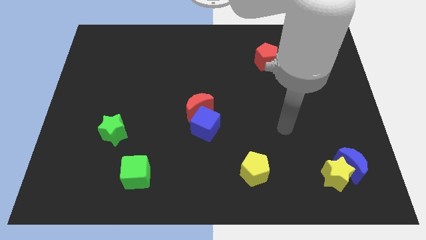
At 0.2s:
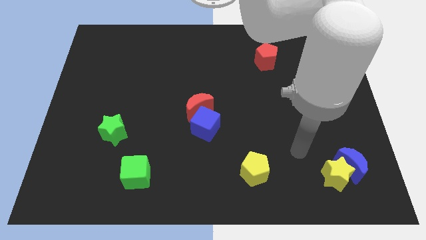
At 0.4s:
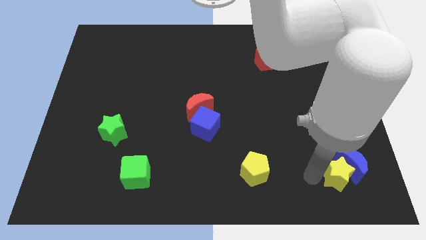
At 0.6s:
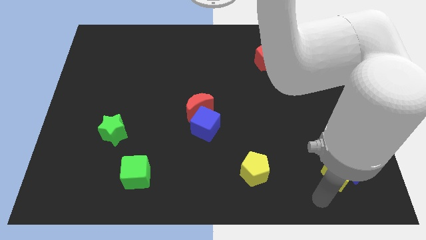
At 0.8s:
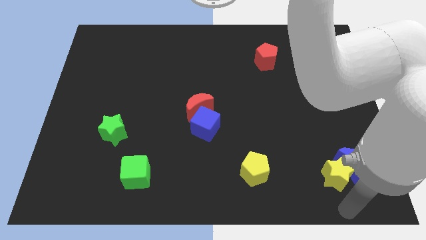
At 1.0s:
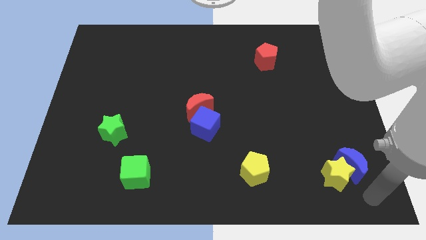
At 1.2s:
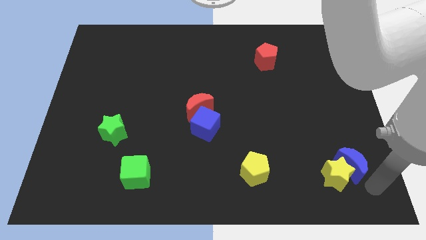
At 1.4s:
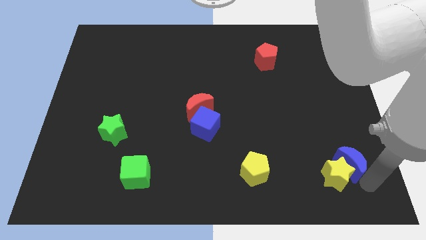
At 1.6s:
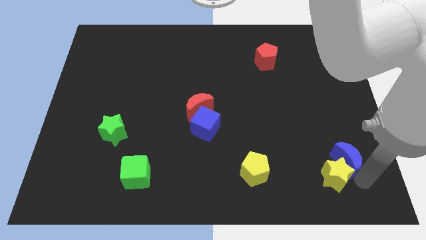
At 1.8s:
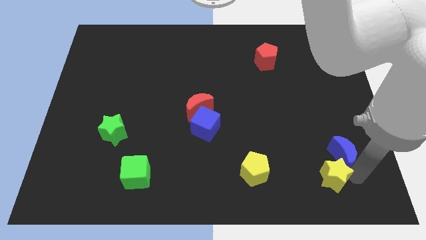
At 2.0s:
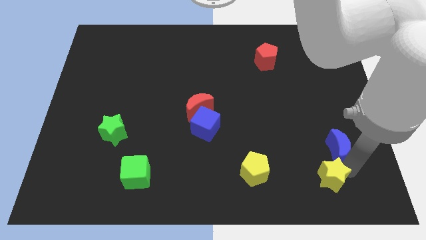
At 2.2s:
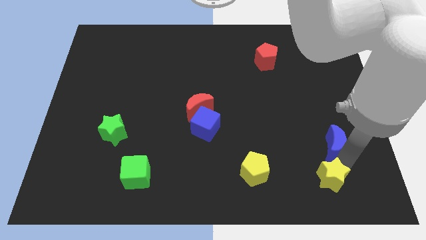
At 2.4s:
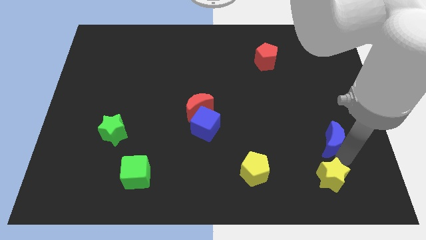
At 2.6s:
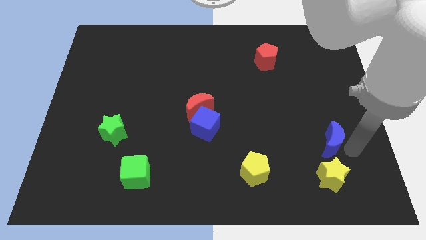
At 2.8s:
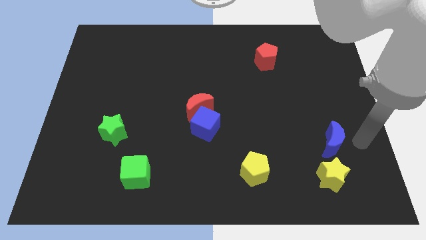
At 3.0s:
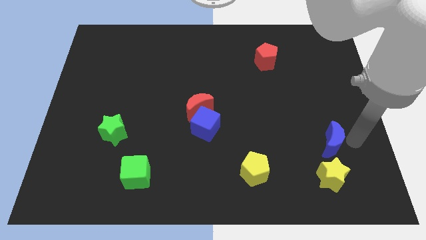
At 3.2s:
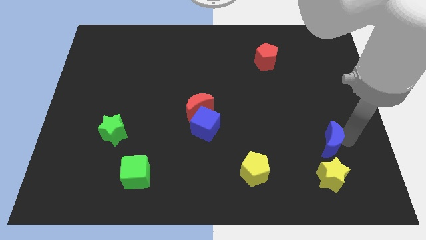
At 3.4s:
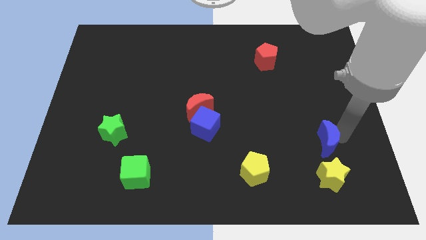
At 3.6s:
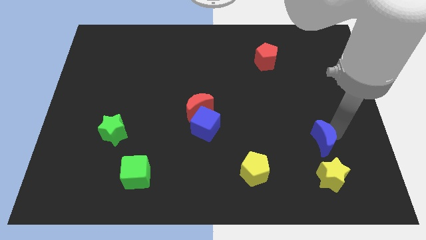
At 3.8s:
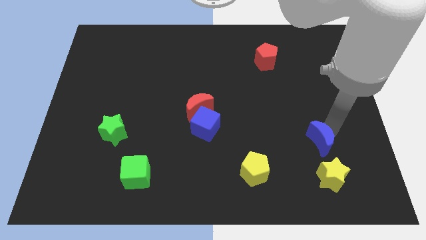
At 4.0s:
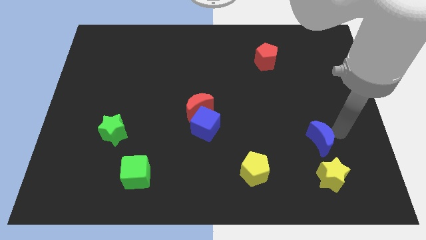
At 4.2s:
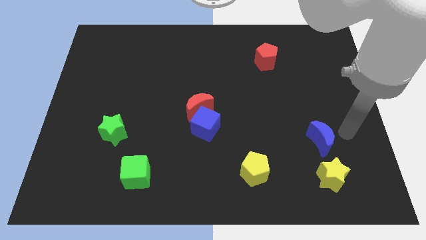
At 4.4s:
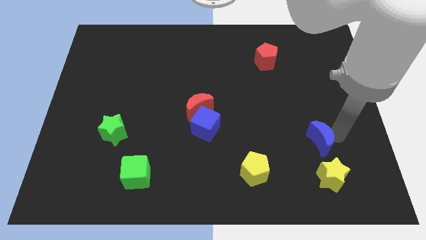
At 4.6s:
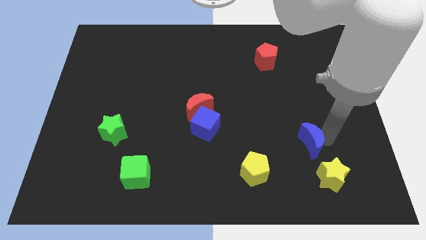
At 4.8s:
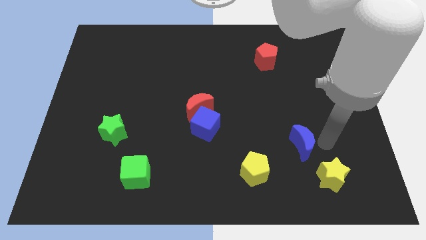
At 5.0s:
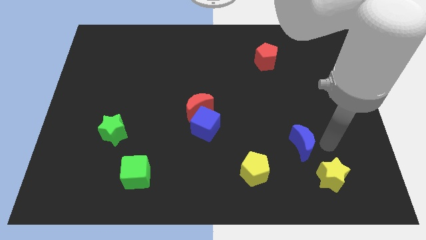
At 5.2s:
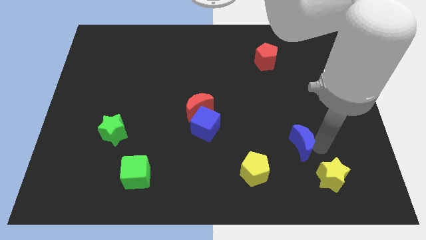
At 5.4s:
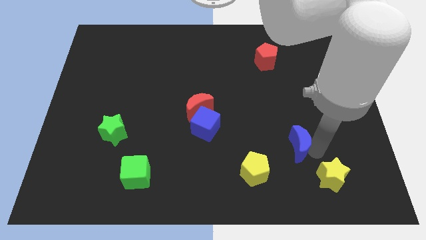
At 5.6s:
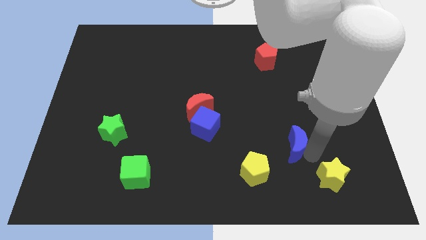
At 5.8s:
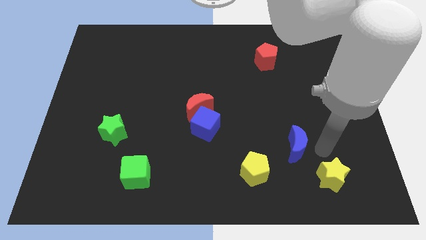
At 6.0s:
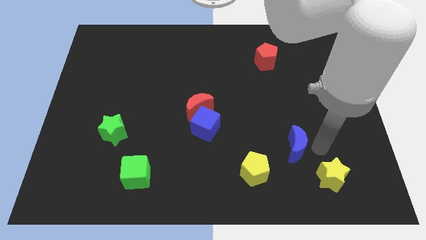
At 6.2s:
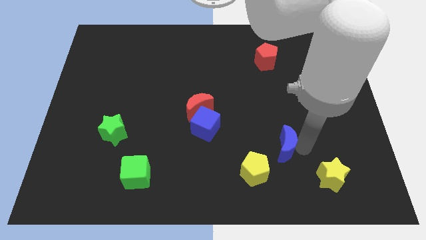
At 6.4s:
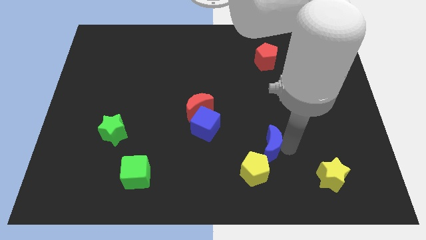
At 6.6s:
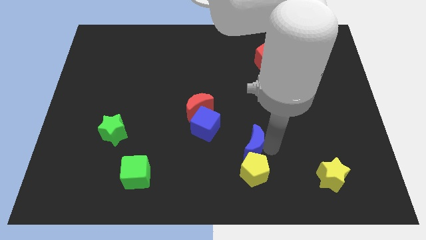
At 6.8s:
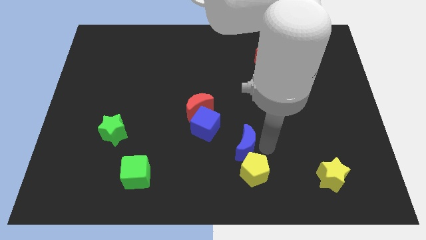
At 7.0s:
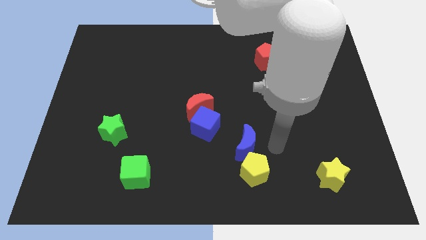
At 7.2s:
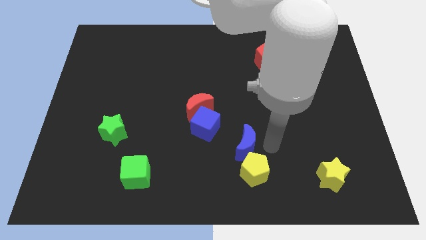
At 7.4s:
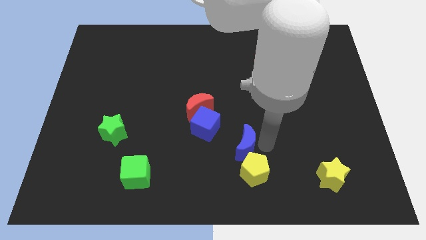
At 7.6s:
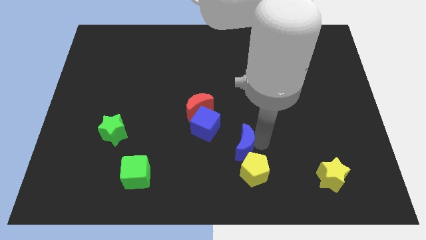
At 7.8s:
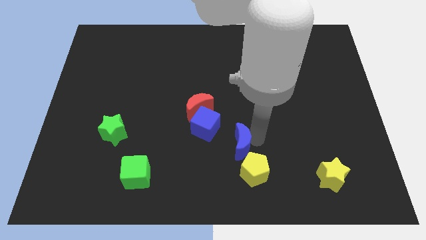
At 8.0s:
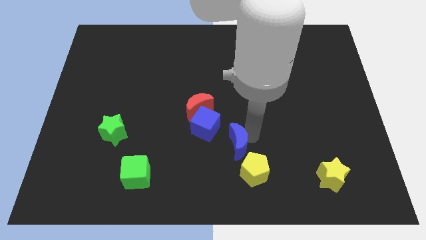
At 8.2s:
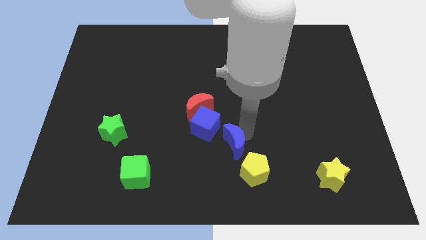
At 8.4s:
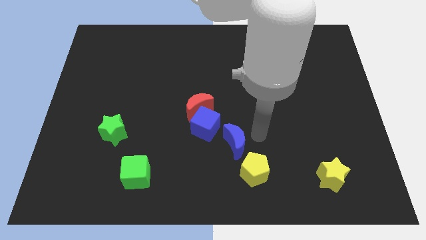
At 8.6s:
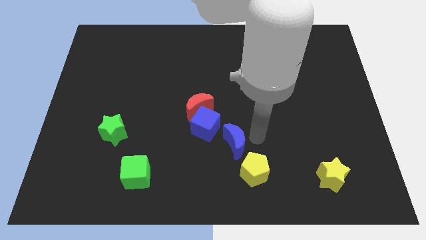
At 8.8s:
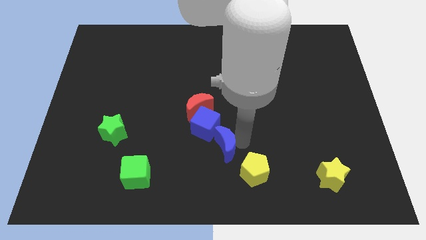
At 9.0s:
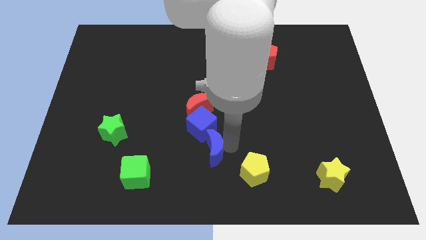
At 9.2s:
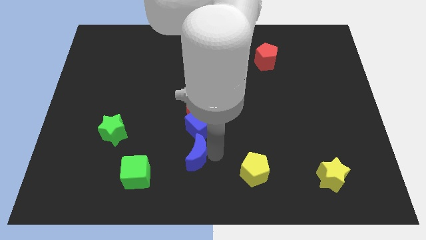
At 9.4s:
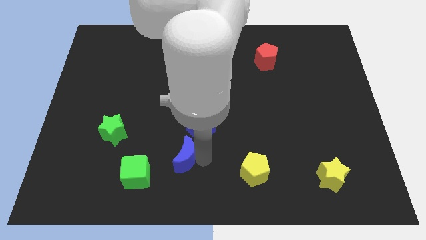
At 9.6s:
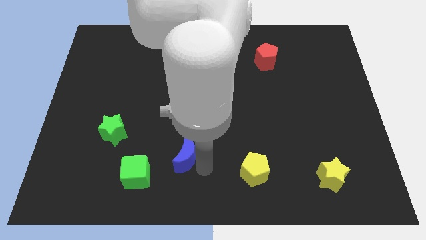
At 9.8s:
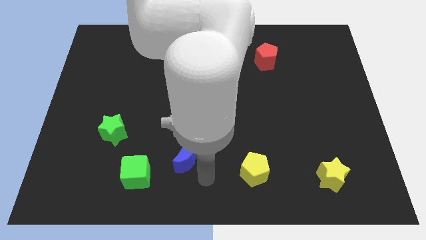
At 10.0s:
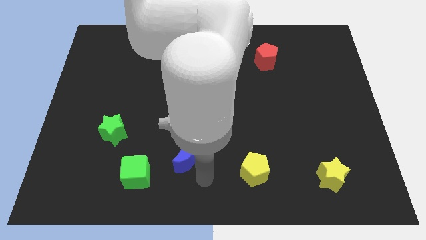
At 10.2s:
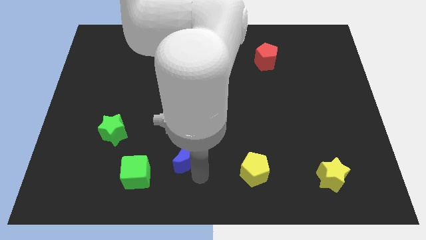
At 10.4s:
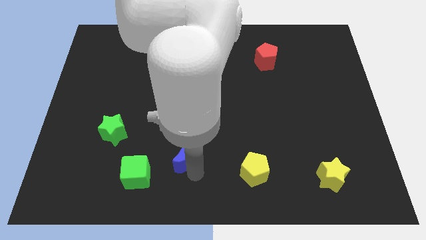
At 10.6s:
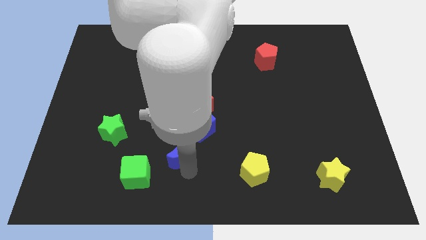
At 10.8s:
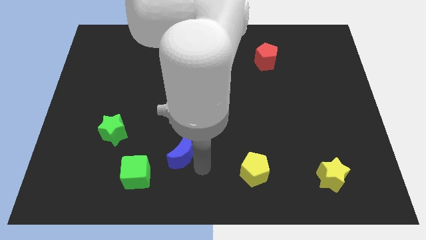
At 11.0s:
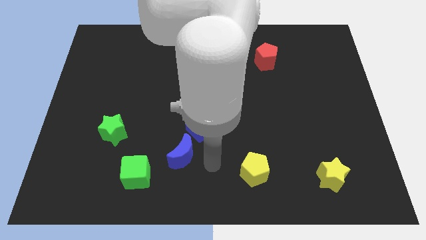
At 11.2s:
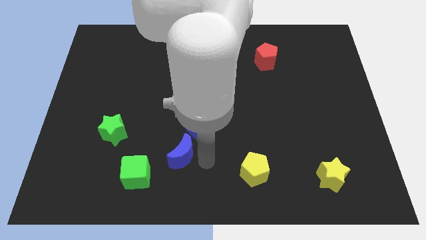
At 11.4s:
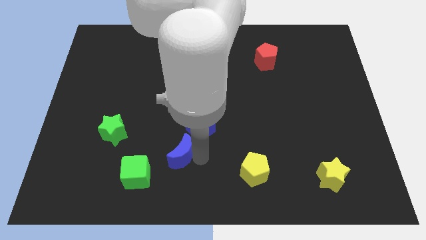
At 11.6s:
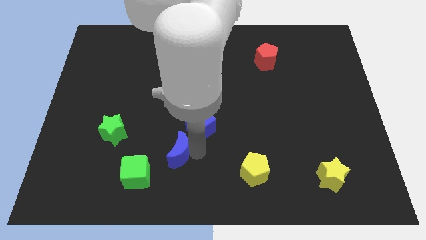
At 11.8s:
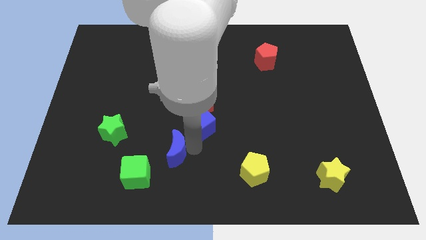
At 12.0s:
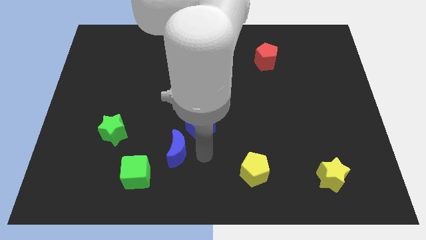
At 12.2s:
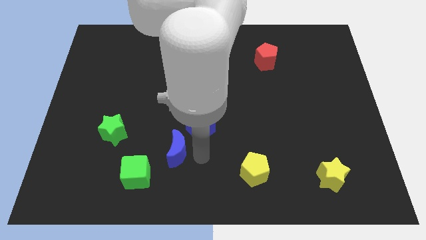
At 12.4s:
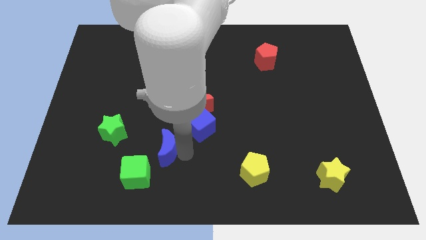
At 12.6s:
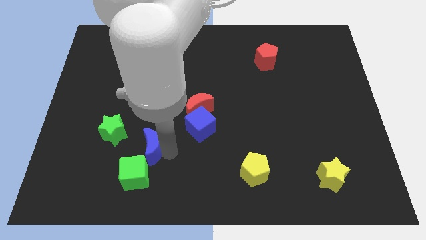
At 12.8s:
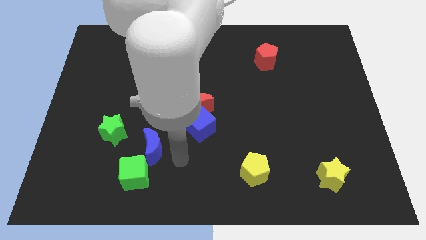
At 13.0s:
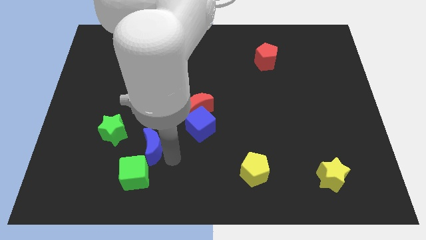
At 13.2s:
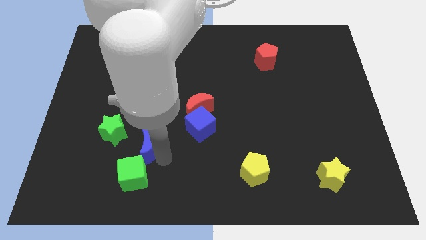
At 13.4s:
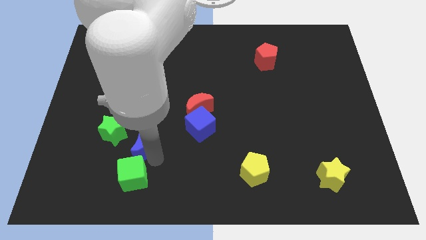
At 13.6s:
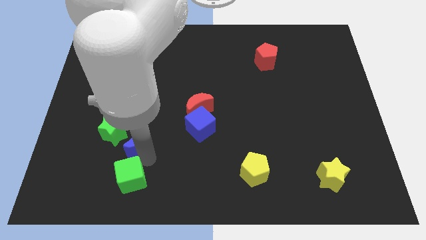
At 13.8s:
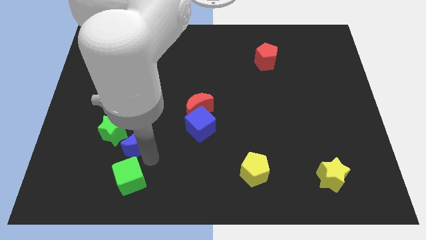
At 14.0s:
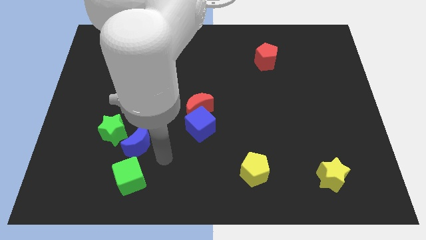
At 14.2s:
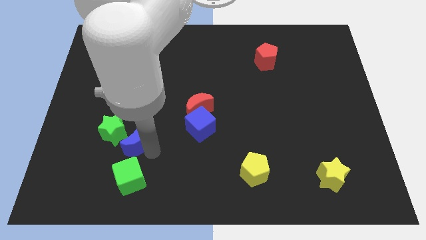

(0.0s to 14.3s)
put the blue moon to the green star
